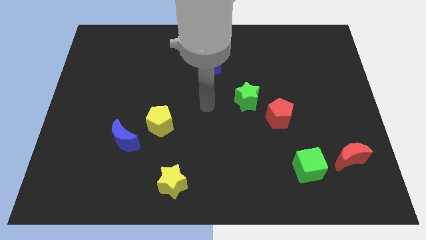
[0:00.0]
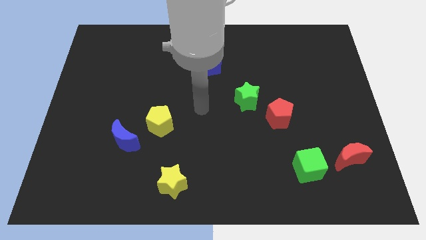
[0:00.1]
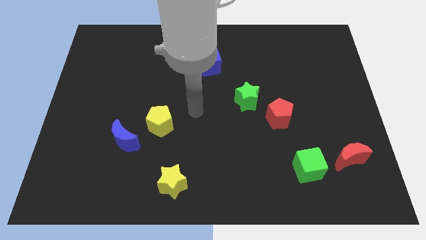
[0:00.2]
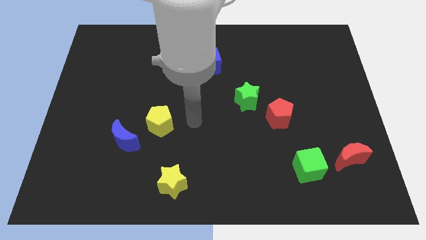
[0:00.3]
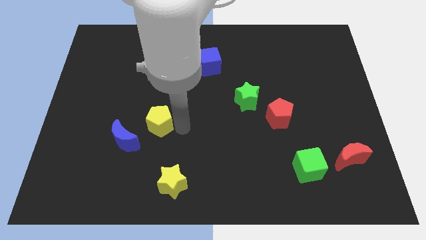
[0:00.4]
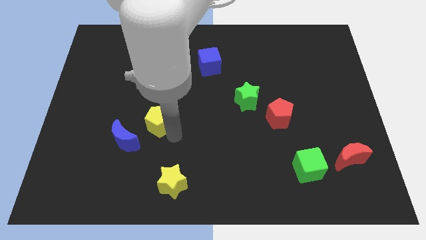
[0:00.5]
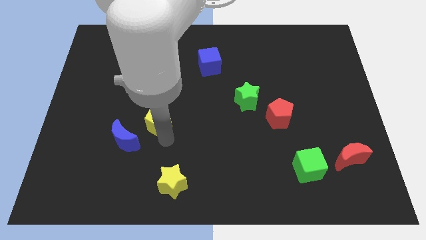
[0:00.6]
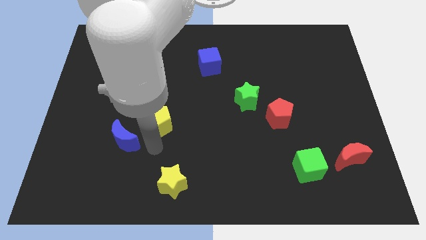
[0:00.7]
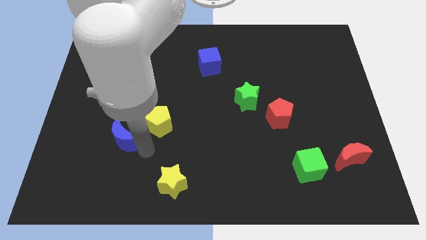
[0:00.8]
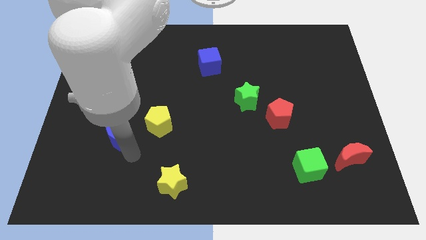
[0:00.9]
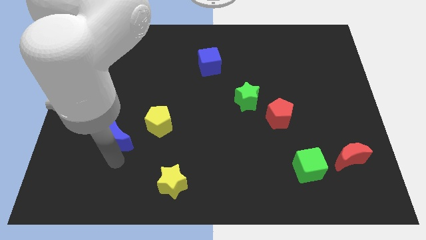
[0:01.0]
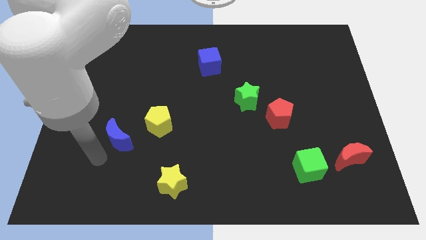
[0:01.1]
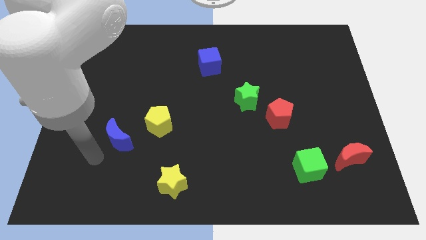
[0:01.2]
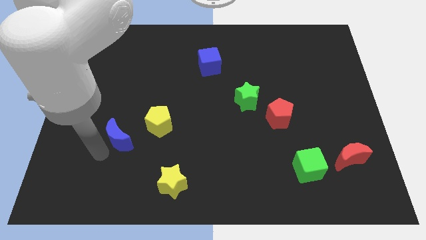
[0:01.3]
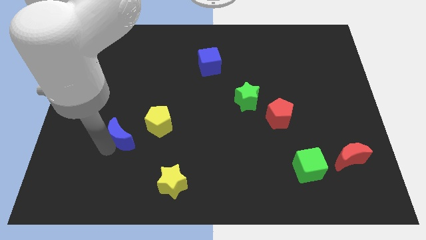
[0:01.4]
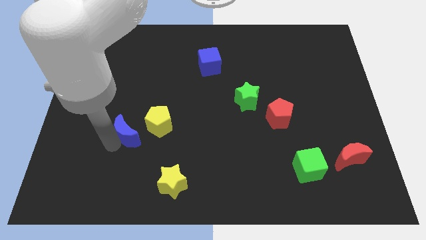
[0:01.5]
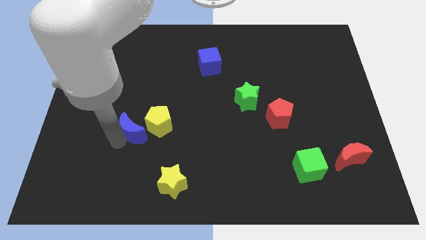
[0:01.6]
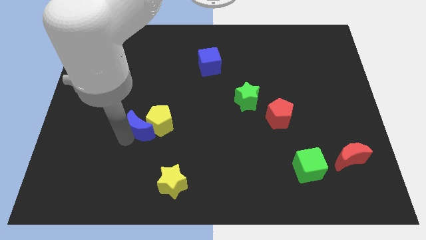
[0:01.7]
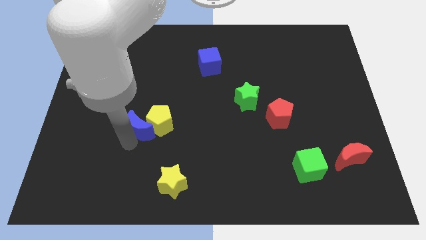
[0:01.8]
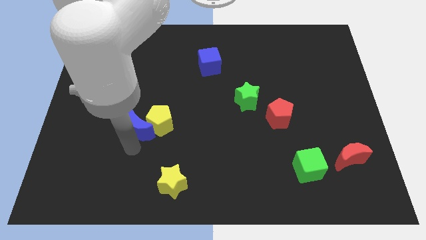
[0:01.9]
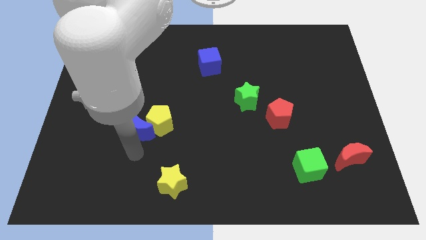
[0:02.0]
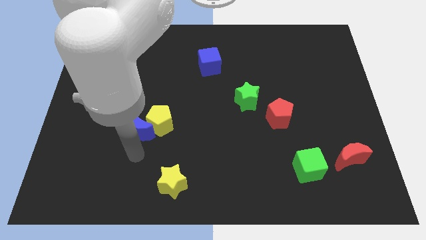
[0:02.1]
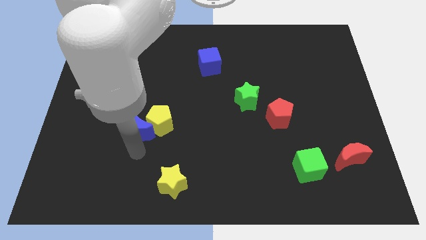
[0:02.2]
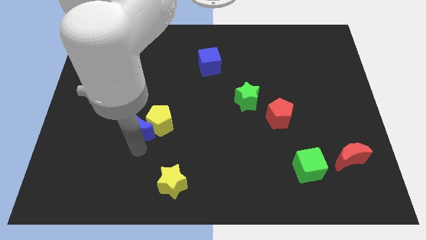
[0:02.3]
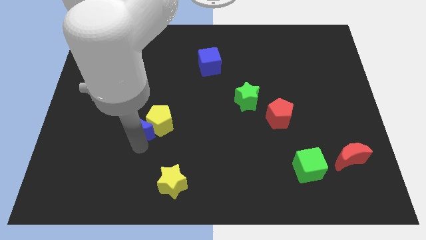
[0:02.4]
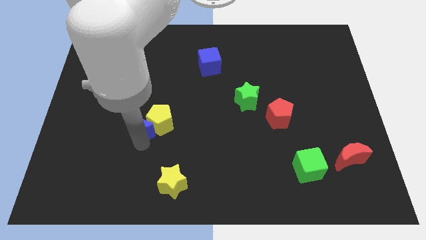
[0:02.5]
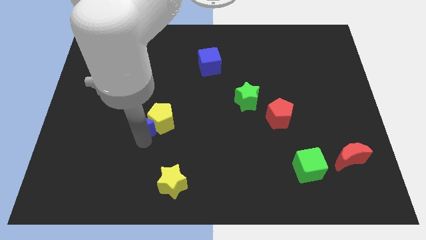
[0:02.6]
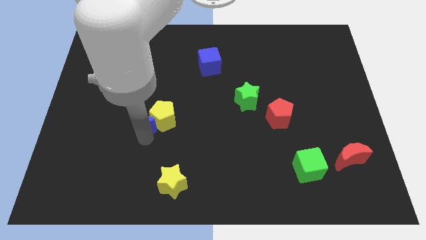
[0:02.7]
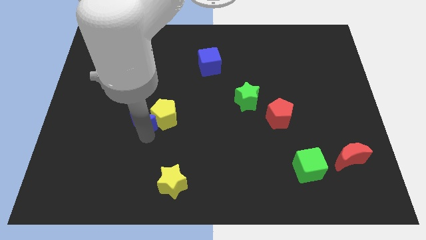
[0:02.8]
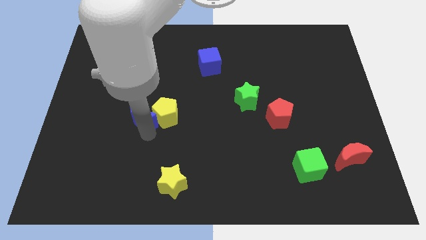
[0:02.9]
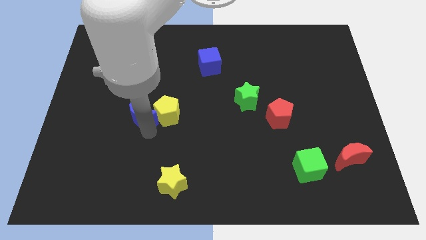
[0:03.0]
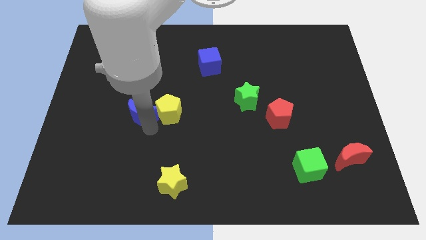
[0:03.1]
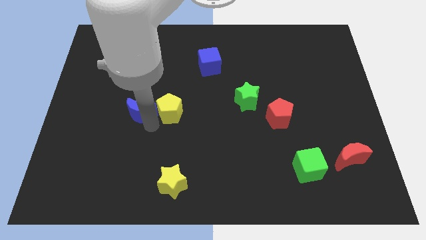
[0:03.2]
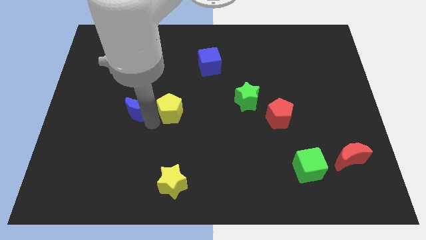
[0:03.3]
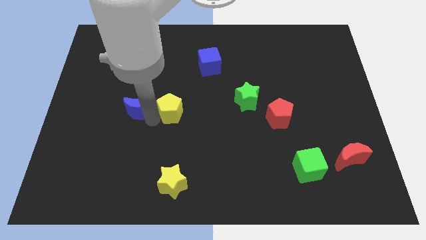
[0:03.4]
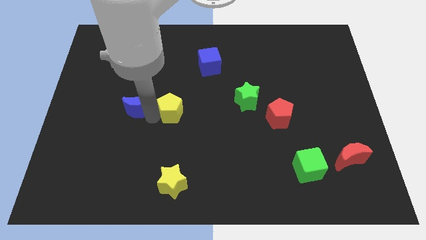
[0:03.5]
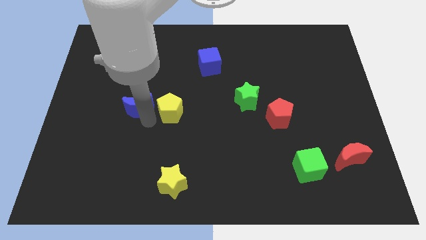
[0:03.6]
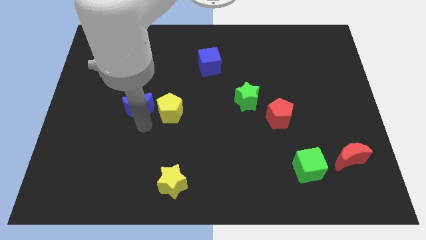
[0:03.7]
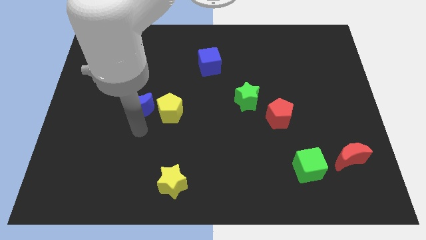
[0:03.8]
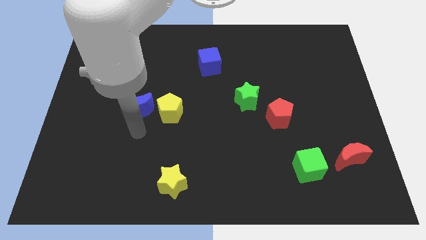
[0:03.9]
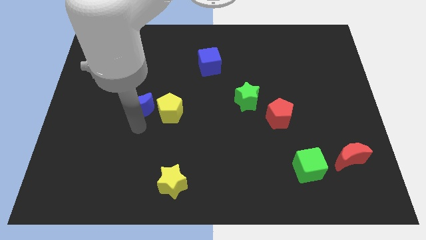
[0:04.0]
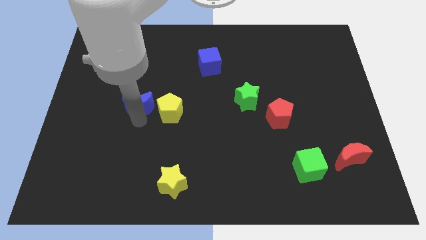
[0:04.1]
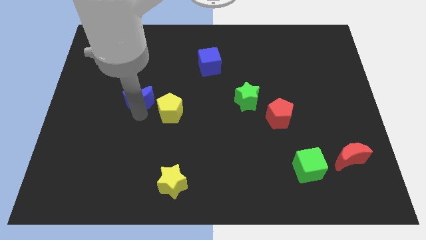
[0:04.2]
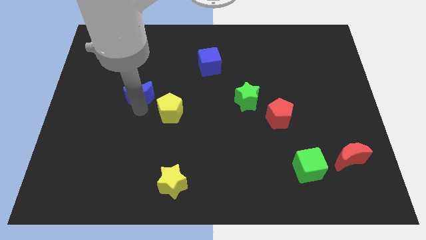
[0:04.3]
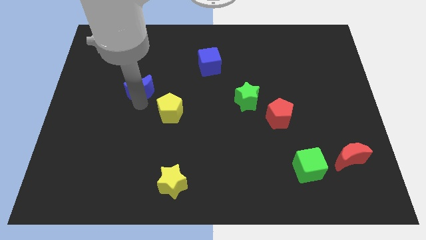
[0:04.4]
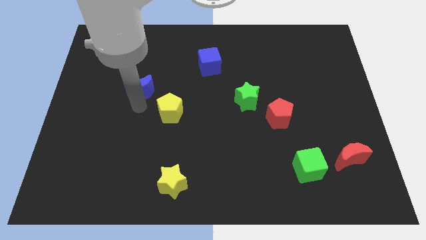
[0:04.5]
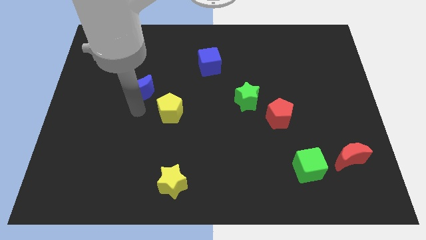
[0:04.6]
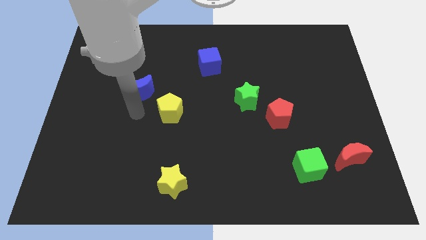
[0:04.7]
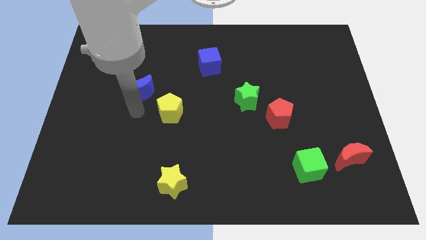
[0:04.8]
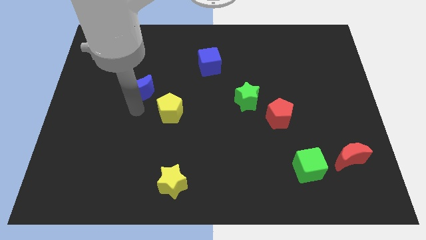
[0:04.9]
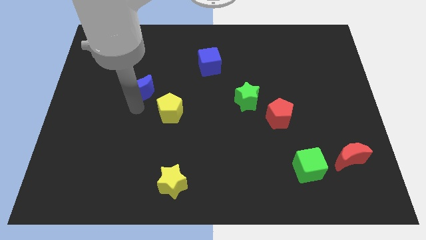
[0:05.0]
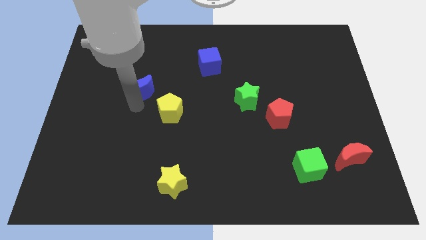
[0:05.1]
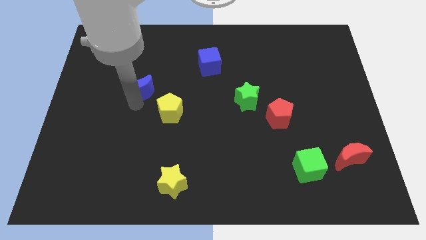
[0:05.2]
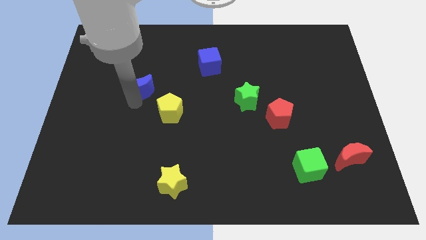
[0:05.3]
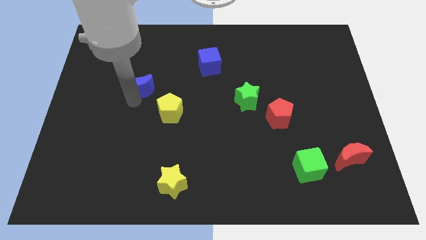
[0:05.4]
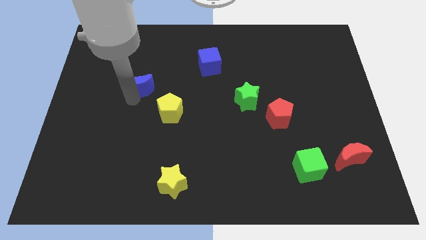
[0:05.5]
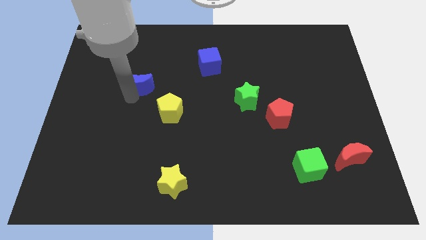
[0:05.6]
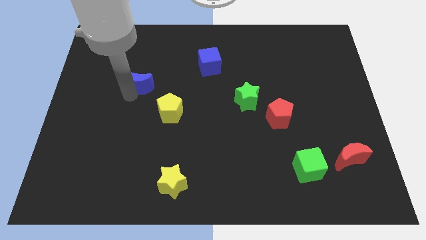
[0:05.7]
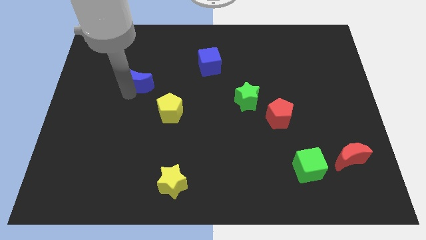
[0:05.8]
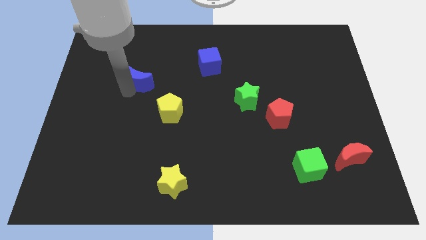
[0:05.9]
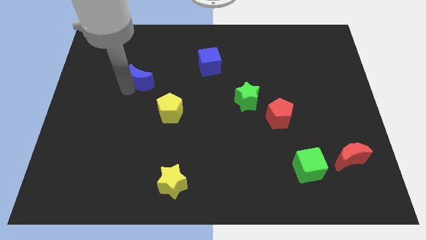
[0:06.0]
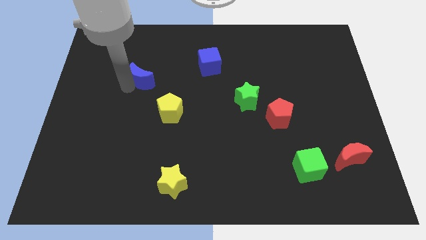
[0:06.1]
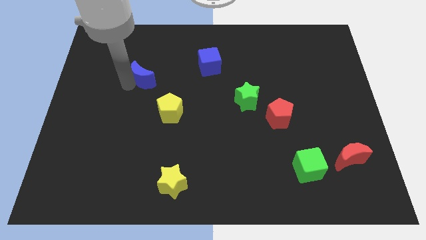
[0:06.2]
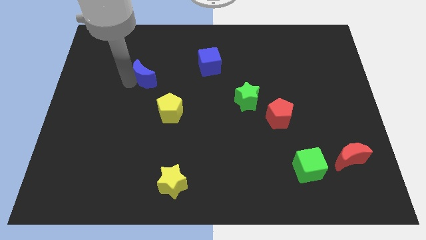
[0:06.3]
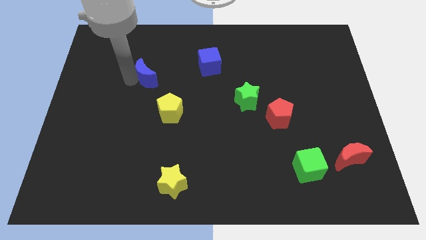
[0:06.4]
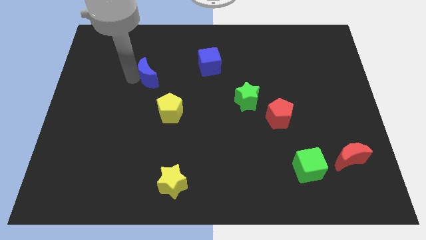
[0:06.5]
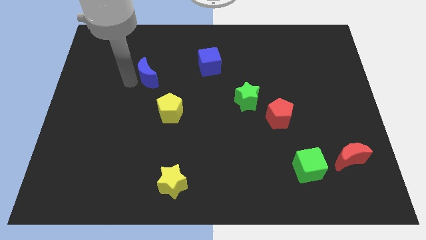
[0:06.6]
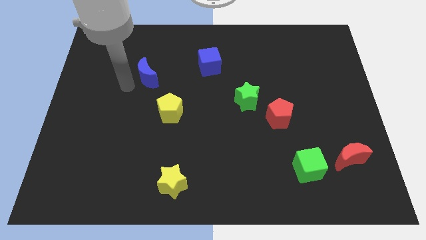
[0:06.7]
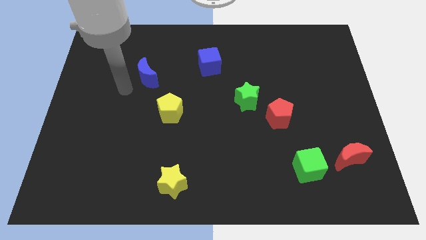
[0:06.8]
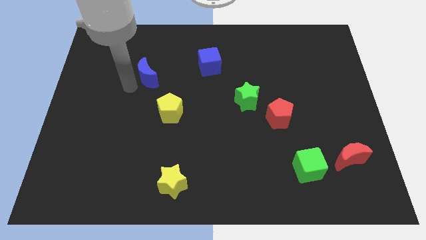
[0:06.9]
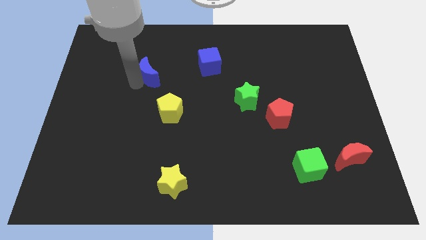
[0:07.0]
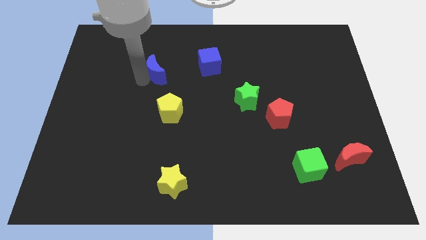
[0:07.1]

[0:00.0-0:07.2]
slide the blue moon left of the blue cube
